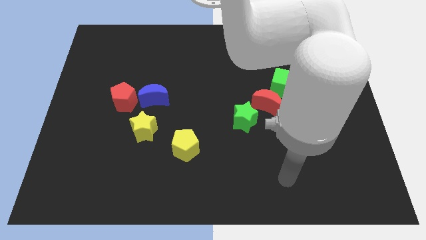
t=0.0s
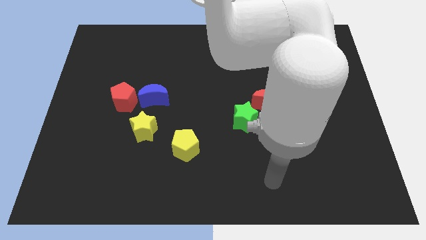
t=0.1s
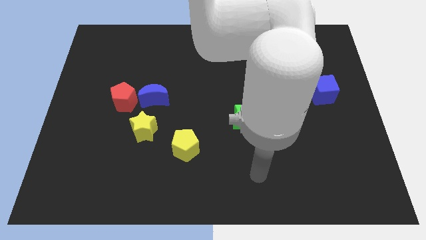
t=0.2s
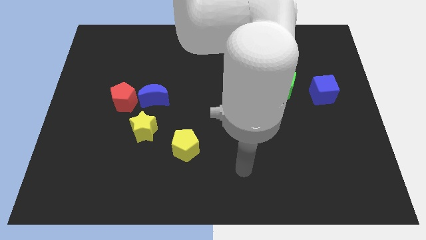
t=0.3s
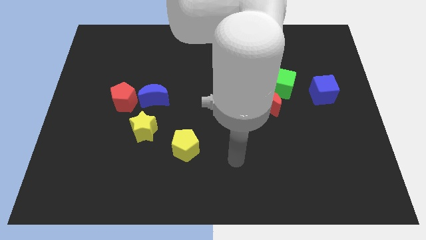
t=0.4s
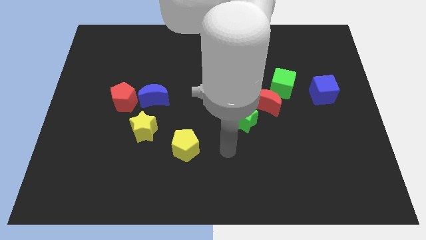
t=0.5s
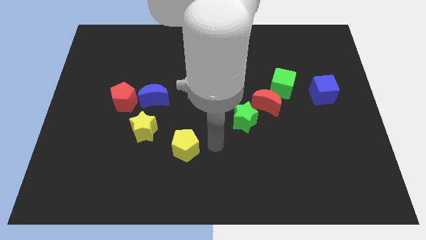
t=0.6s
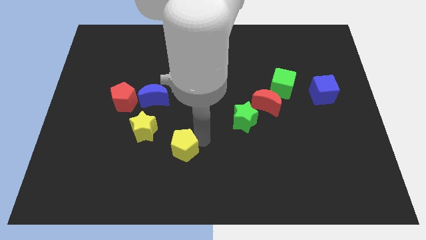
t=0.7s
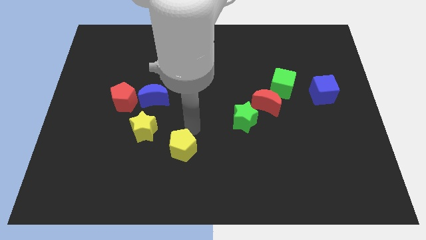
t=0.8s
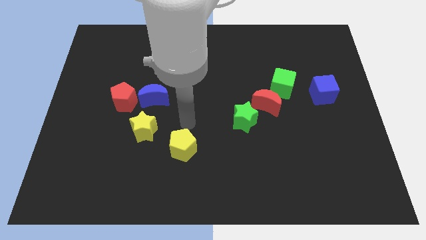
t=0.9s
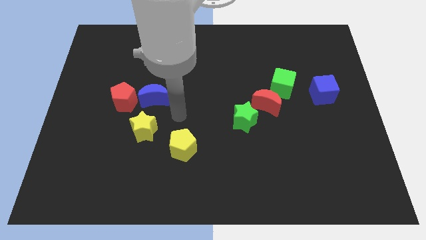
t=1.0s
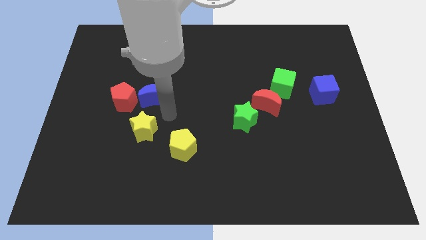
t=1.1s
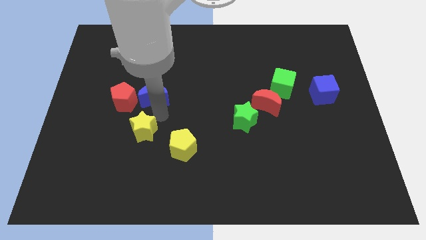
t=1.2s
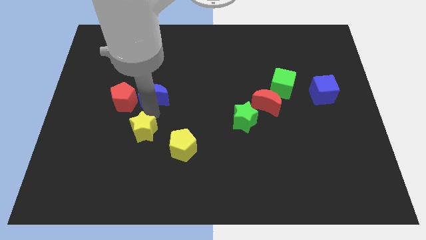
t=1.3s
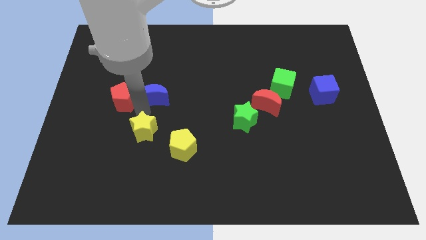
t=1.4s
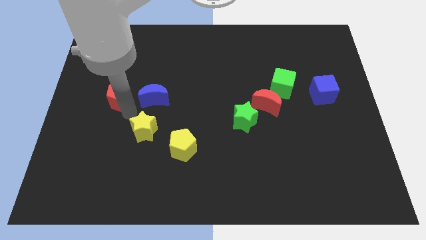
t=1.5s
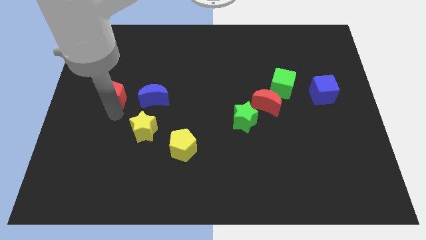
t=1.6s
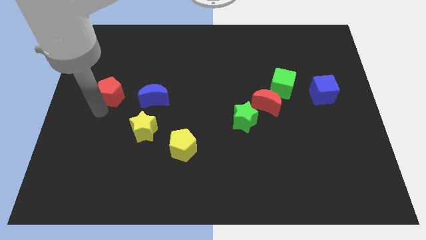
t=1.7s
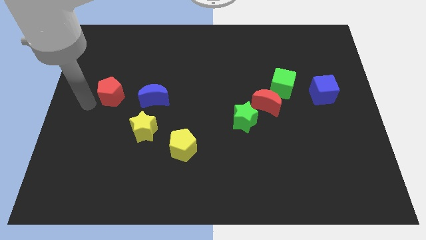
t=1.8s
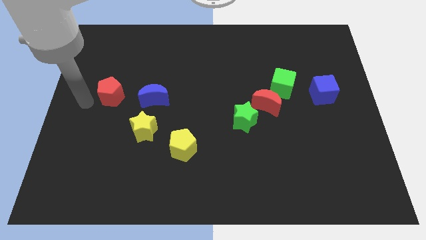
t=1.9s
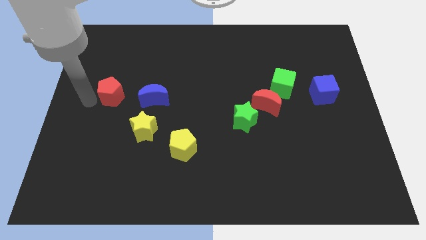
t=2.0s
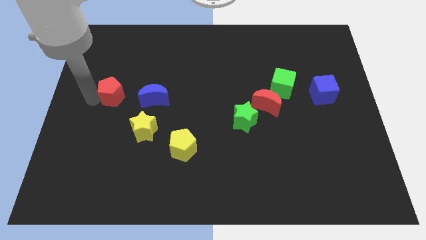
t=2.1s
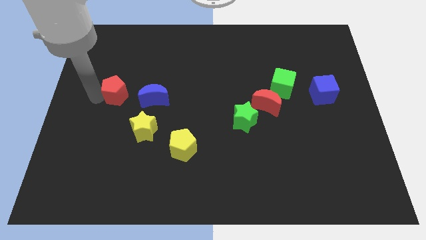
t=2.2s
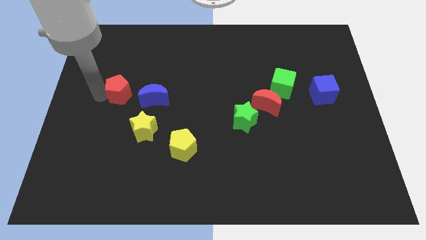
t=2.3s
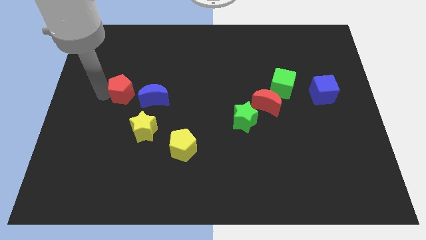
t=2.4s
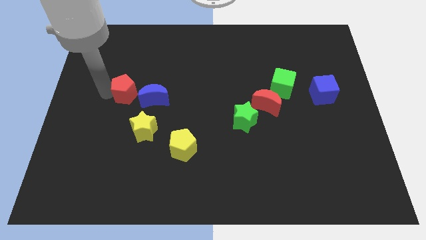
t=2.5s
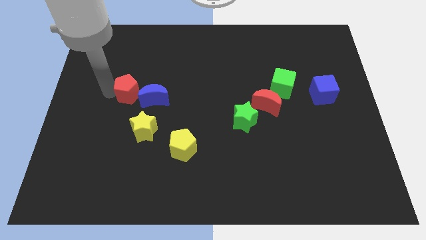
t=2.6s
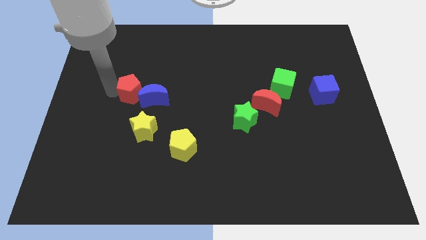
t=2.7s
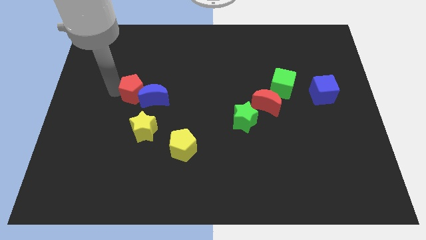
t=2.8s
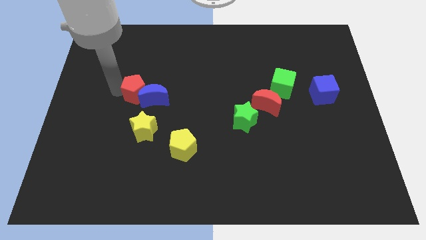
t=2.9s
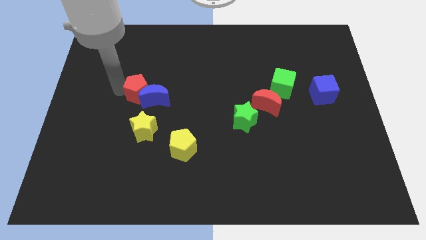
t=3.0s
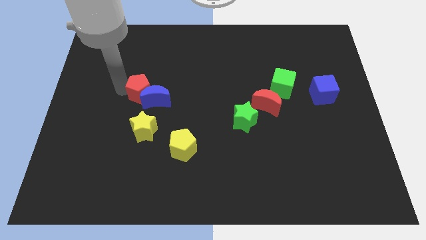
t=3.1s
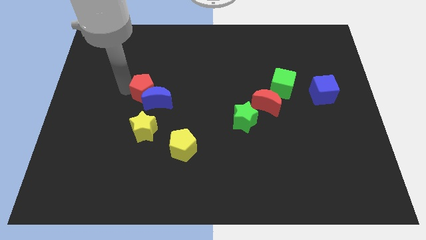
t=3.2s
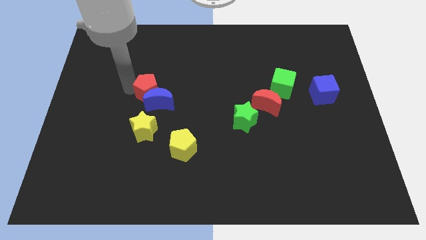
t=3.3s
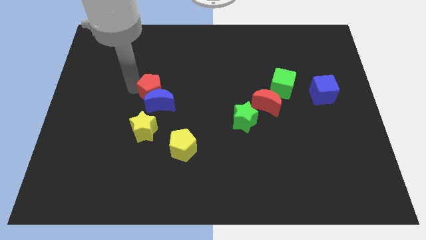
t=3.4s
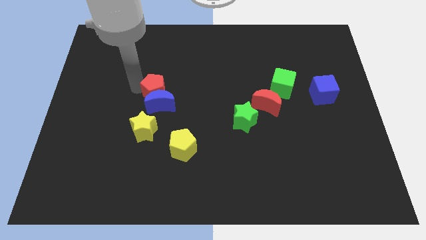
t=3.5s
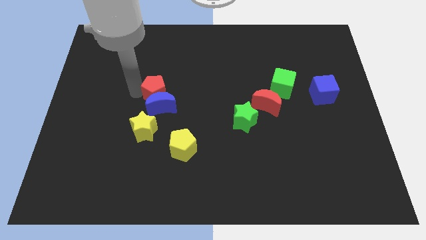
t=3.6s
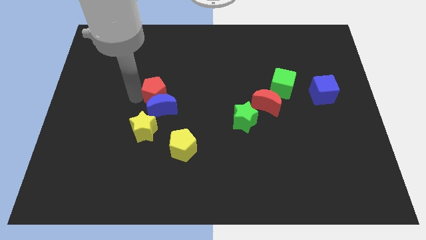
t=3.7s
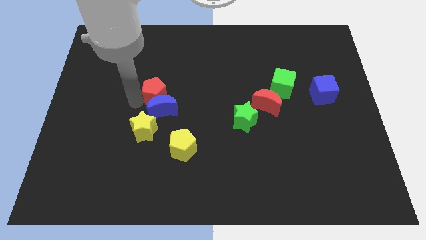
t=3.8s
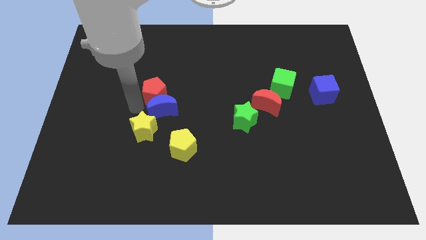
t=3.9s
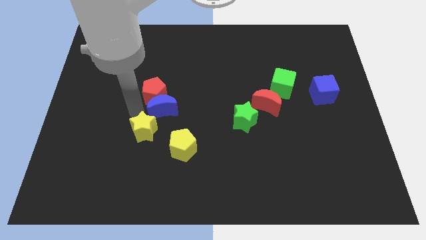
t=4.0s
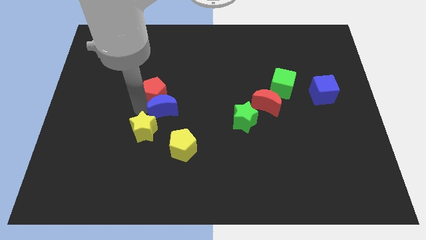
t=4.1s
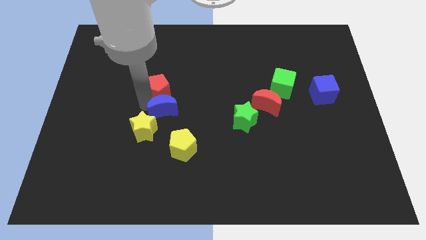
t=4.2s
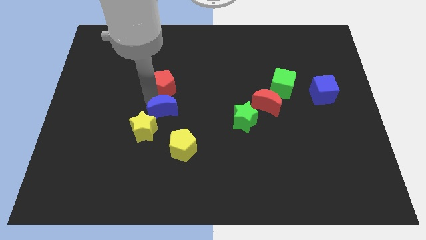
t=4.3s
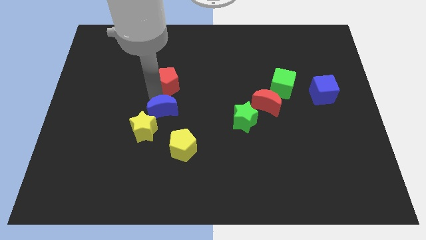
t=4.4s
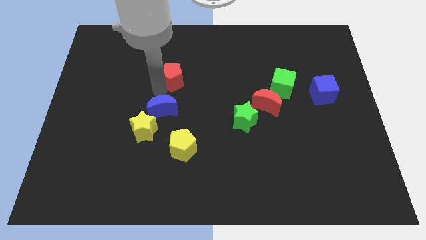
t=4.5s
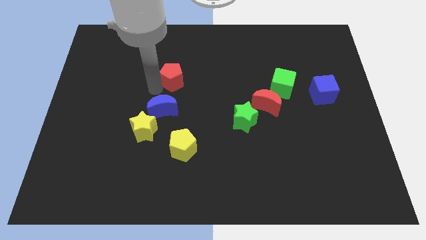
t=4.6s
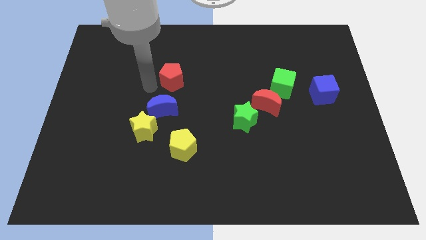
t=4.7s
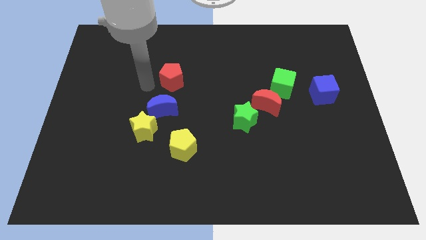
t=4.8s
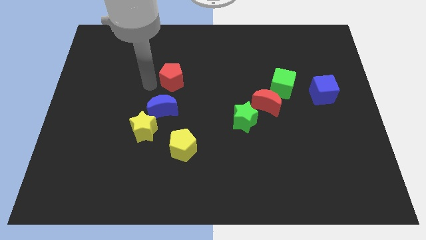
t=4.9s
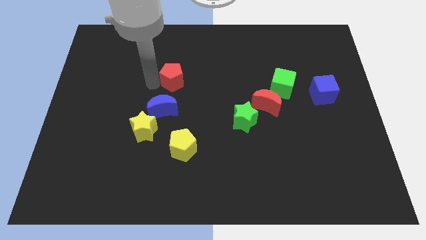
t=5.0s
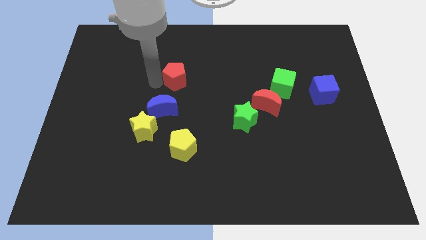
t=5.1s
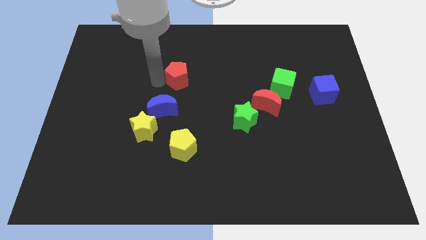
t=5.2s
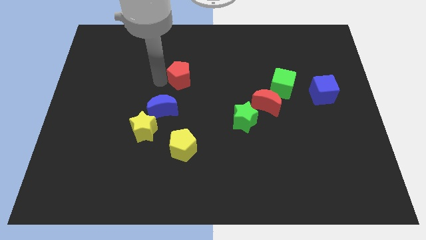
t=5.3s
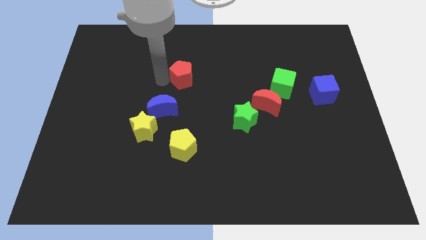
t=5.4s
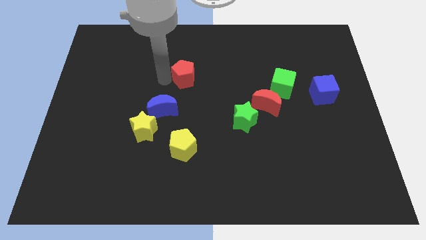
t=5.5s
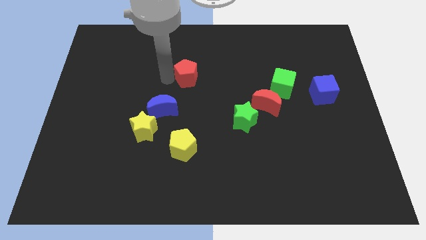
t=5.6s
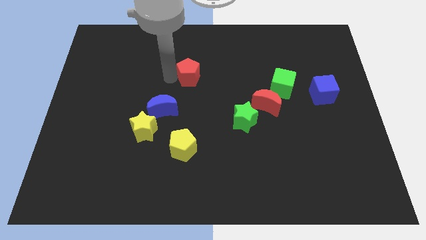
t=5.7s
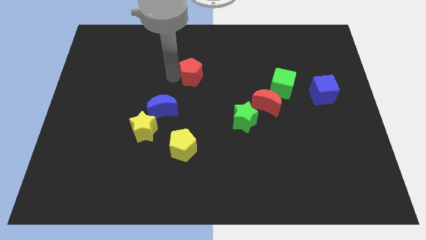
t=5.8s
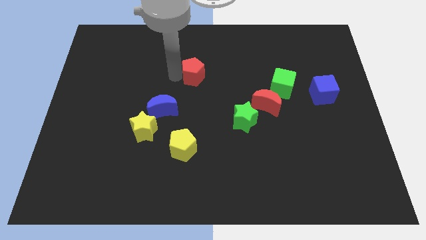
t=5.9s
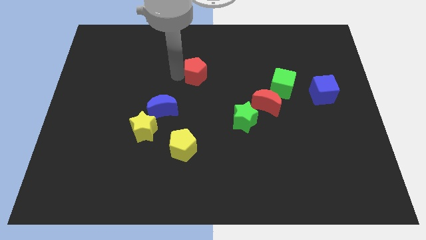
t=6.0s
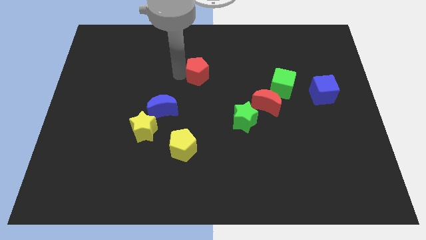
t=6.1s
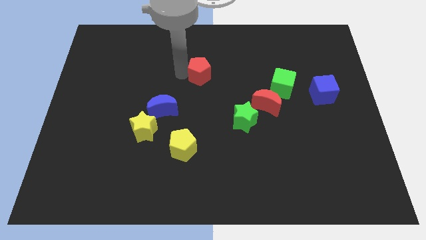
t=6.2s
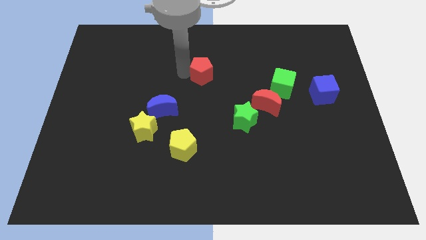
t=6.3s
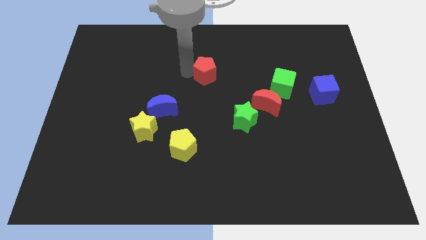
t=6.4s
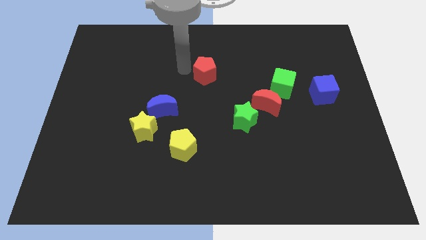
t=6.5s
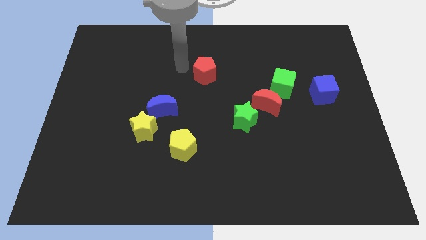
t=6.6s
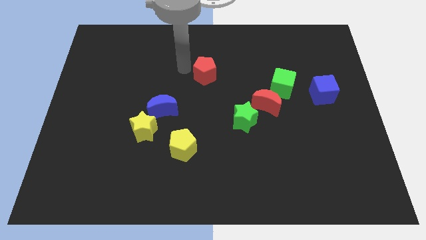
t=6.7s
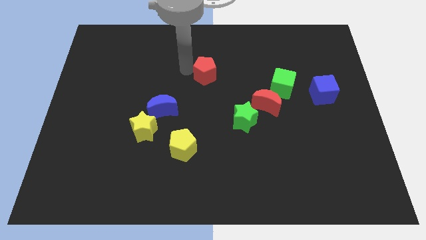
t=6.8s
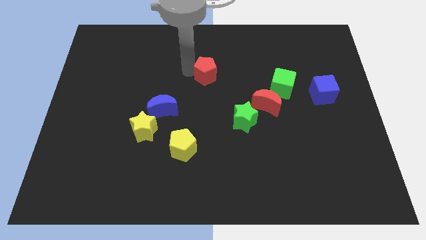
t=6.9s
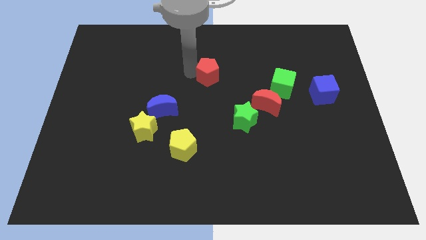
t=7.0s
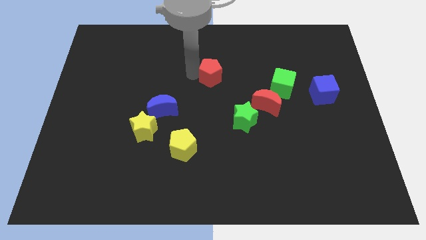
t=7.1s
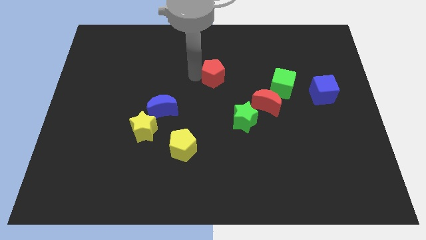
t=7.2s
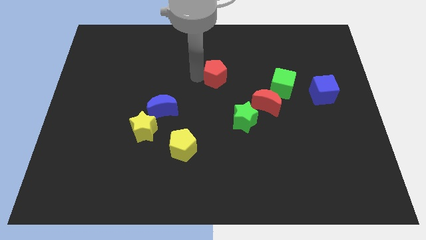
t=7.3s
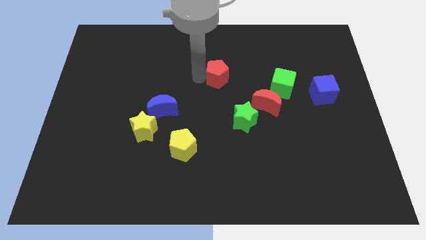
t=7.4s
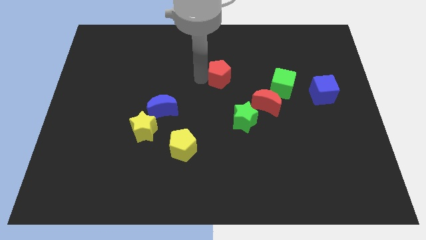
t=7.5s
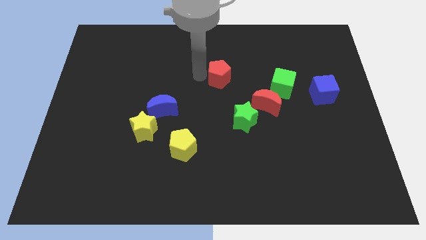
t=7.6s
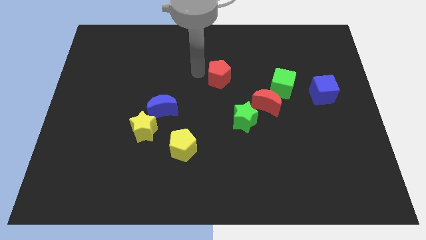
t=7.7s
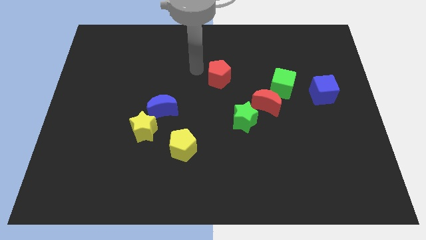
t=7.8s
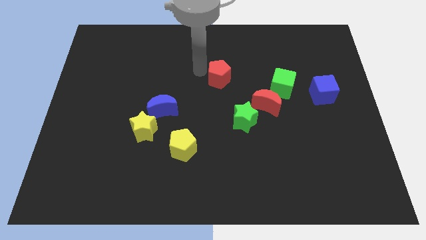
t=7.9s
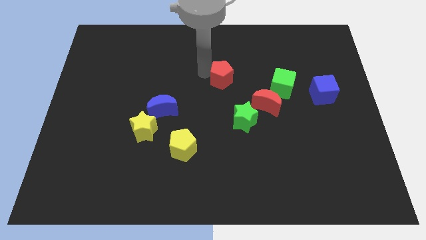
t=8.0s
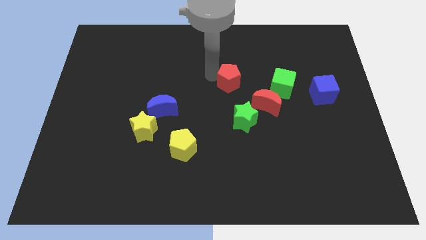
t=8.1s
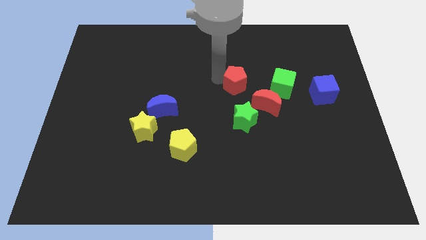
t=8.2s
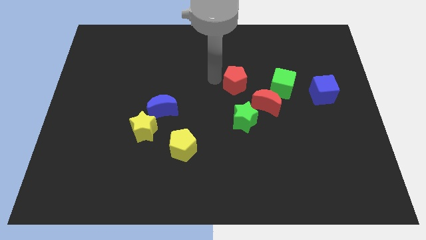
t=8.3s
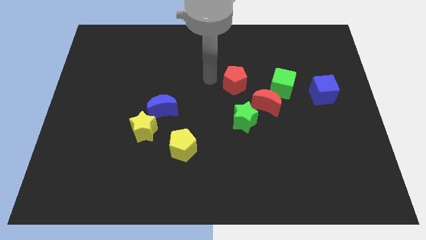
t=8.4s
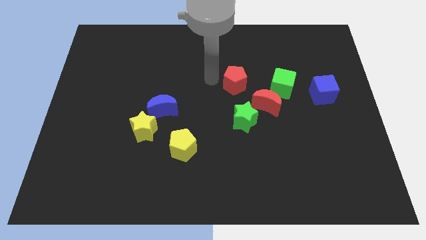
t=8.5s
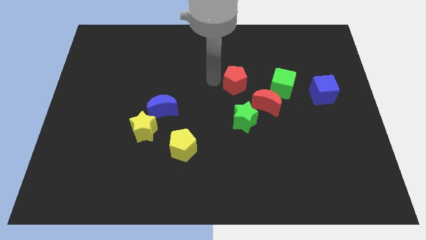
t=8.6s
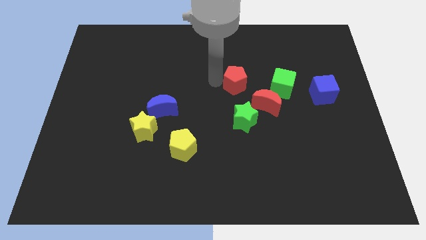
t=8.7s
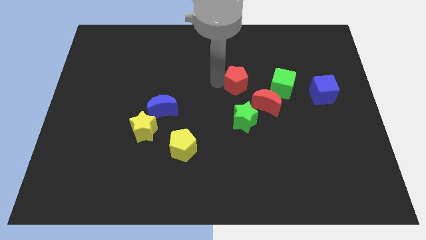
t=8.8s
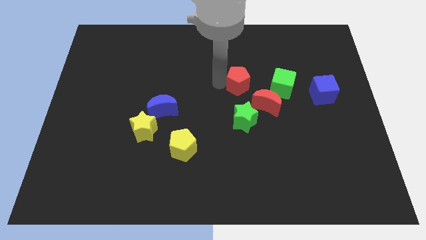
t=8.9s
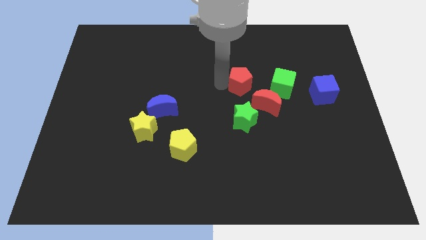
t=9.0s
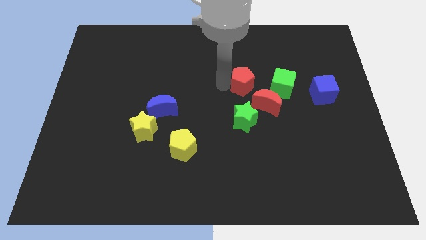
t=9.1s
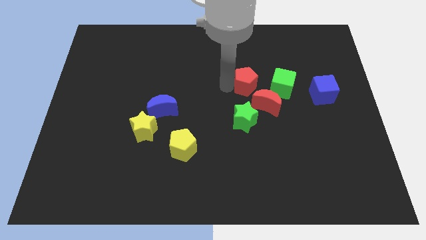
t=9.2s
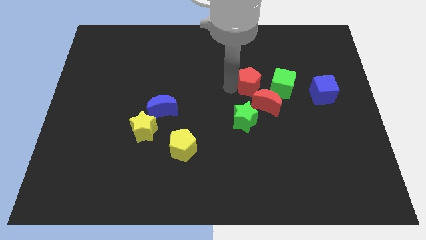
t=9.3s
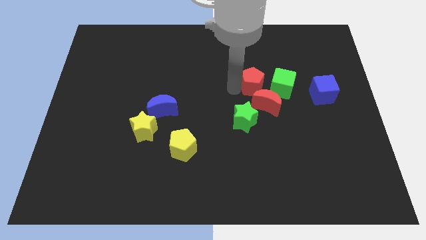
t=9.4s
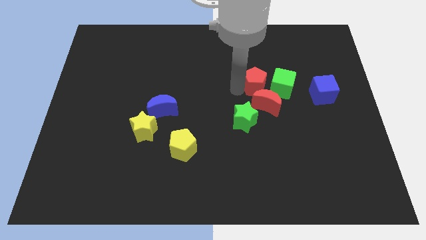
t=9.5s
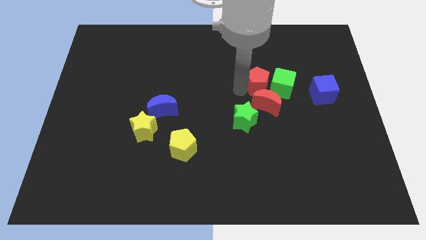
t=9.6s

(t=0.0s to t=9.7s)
slide the red pentagon towards the green cube
